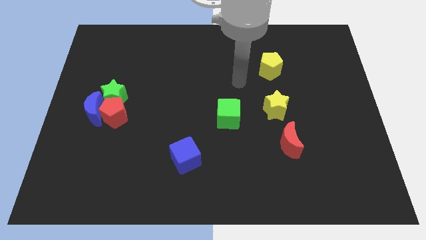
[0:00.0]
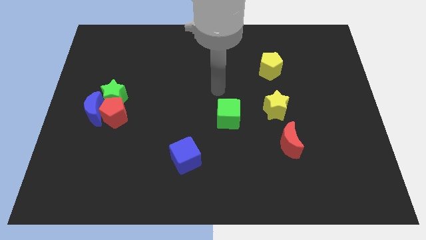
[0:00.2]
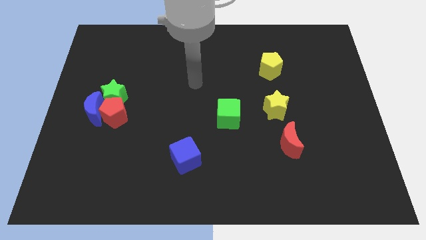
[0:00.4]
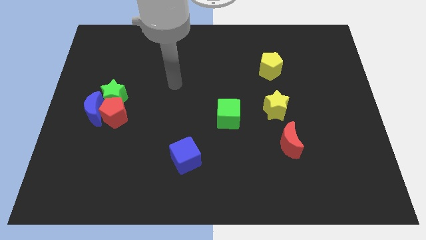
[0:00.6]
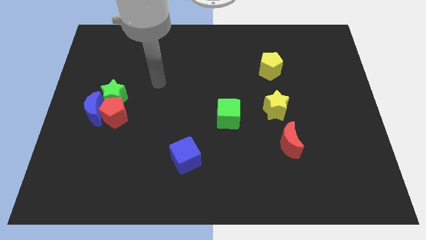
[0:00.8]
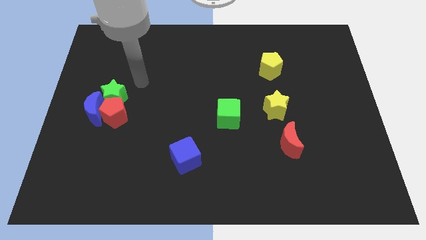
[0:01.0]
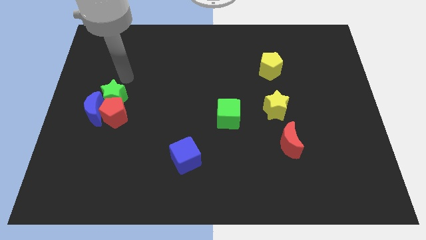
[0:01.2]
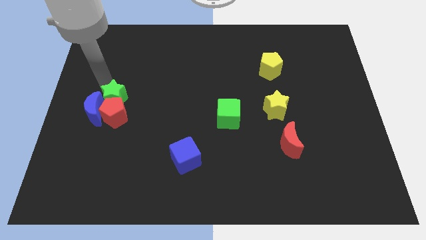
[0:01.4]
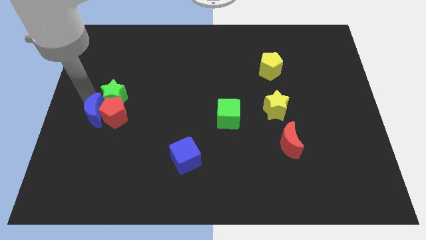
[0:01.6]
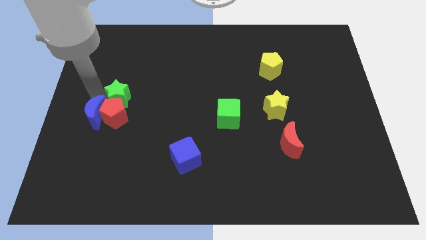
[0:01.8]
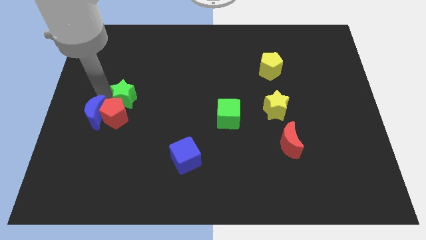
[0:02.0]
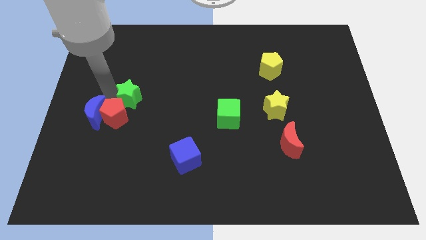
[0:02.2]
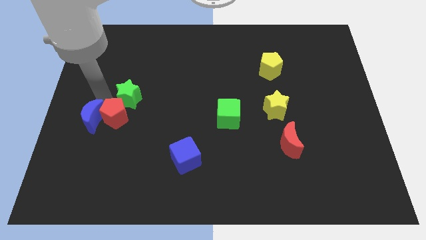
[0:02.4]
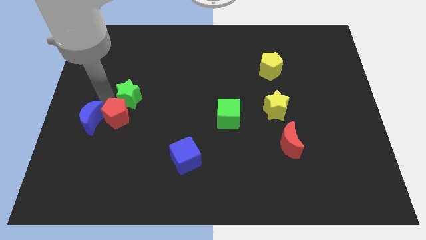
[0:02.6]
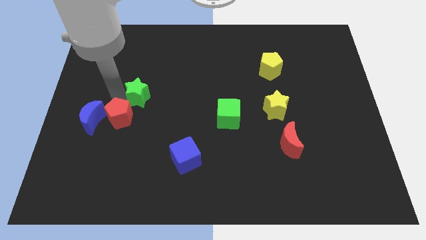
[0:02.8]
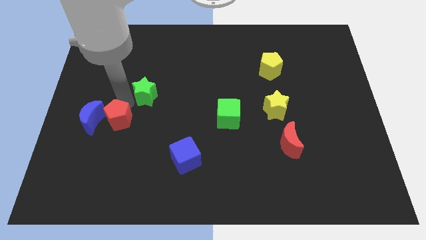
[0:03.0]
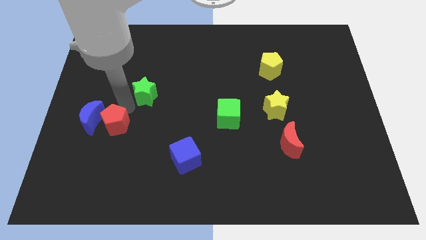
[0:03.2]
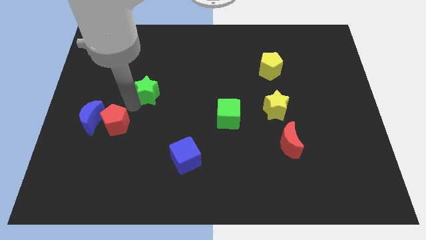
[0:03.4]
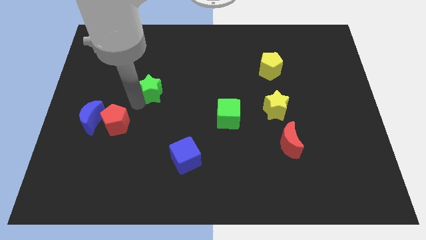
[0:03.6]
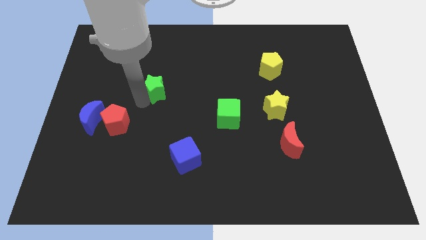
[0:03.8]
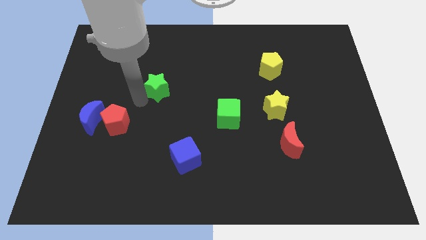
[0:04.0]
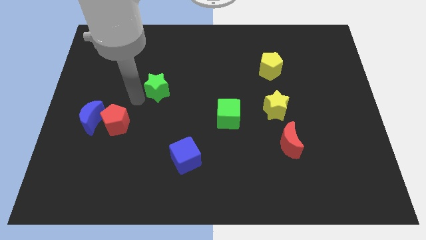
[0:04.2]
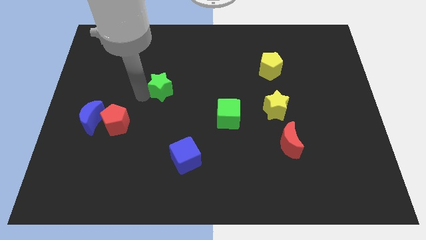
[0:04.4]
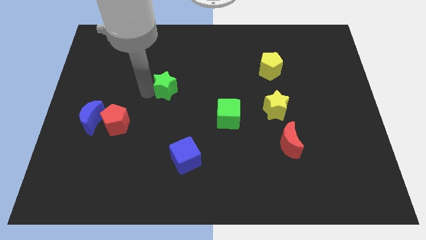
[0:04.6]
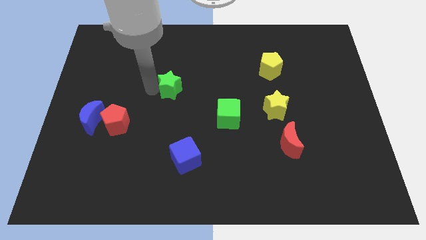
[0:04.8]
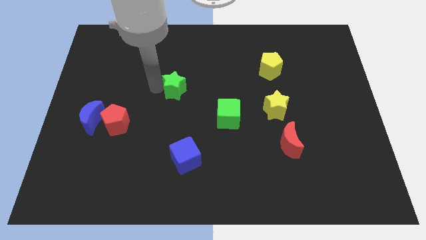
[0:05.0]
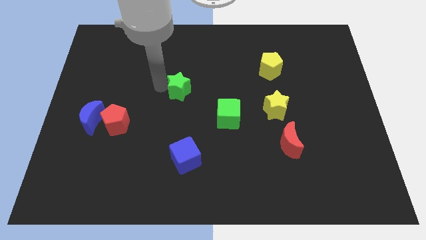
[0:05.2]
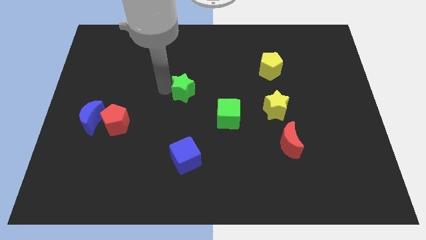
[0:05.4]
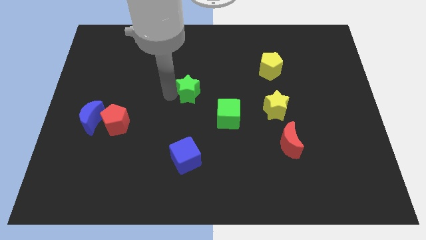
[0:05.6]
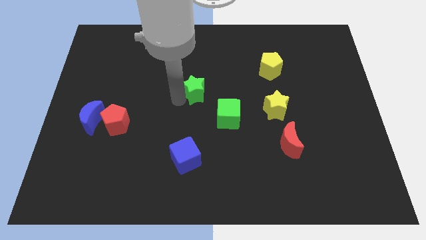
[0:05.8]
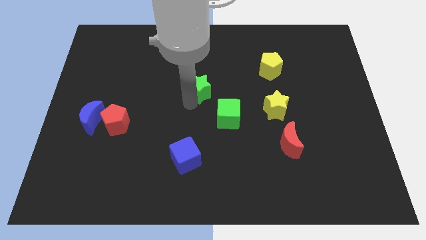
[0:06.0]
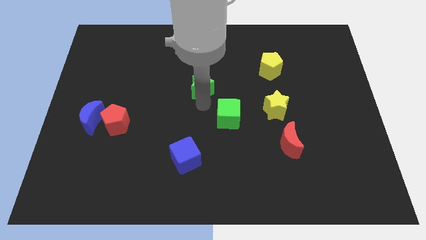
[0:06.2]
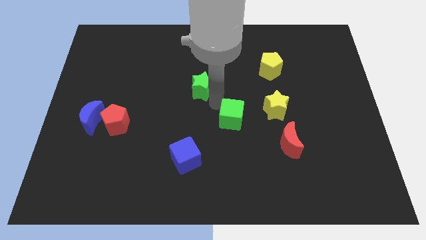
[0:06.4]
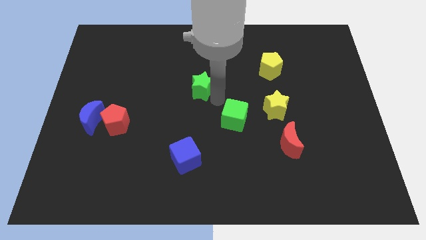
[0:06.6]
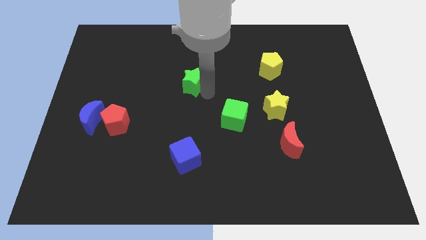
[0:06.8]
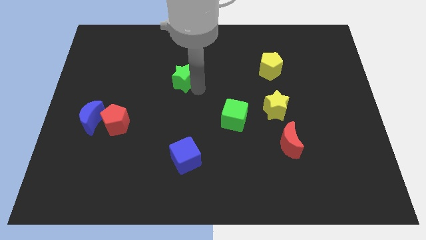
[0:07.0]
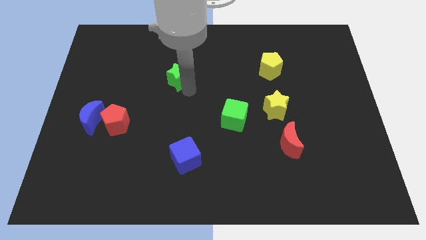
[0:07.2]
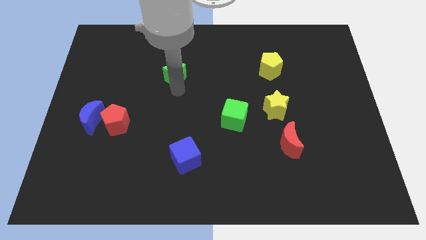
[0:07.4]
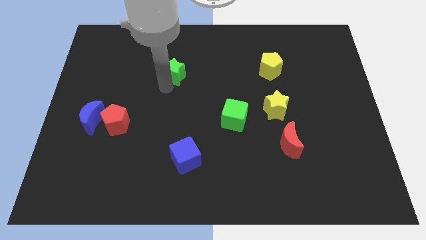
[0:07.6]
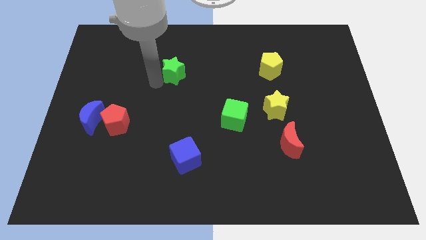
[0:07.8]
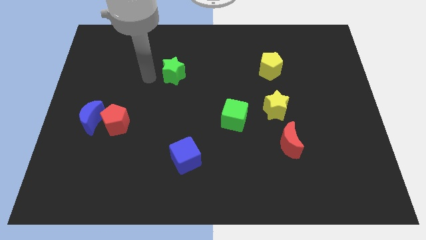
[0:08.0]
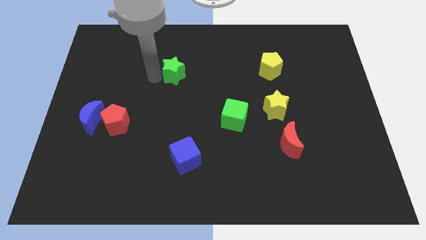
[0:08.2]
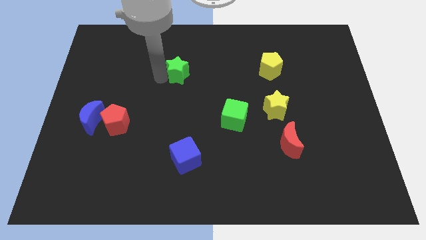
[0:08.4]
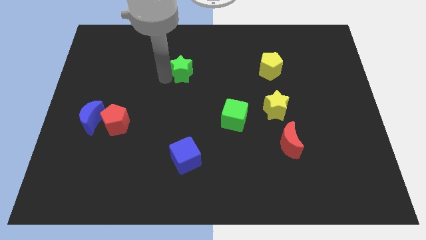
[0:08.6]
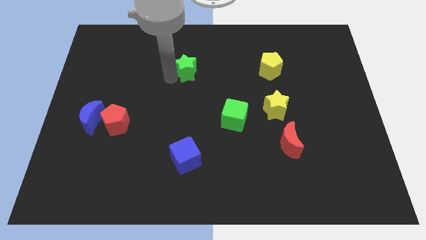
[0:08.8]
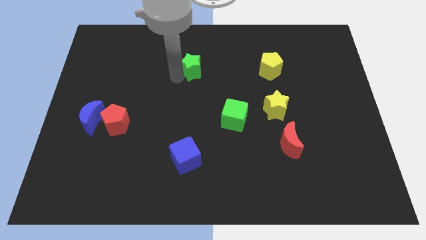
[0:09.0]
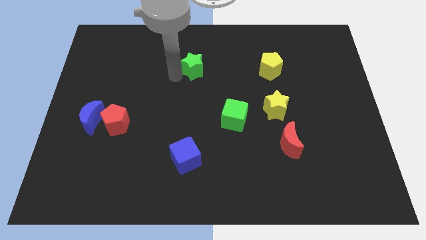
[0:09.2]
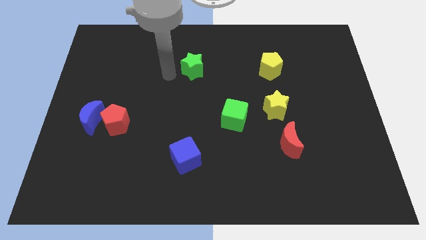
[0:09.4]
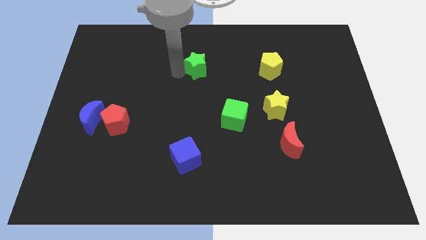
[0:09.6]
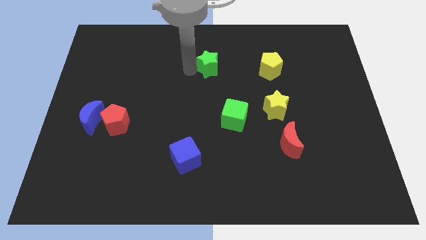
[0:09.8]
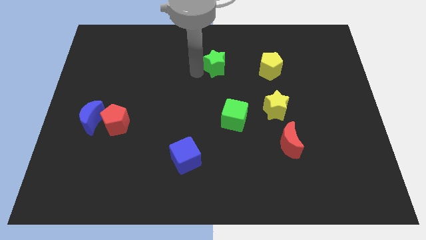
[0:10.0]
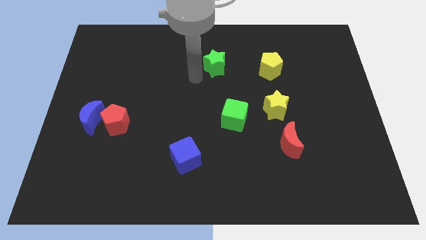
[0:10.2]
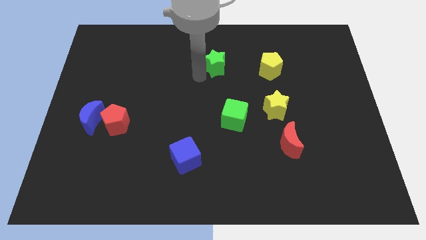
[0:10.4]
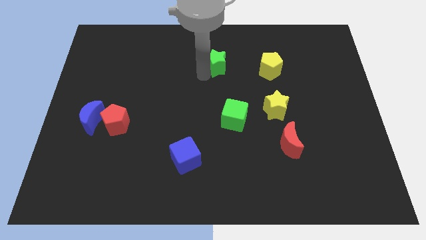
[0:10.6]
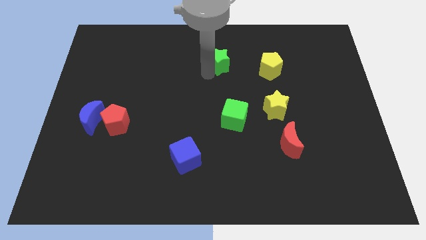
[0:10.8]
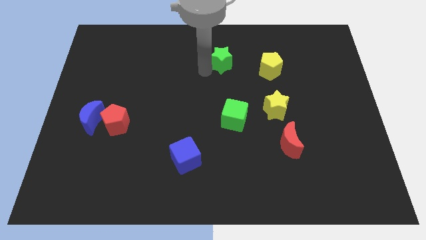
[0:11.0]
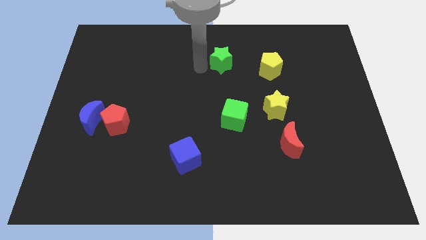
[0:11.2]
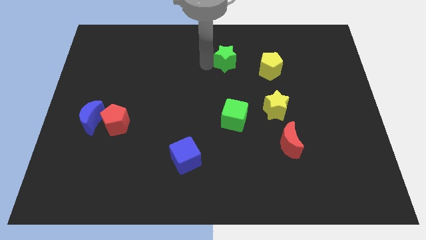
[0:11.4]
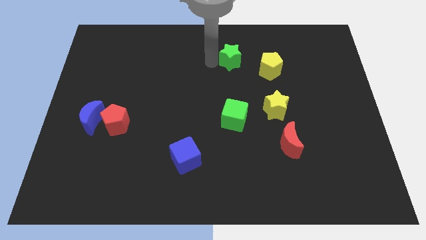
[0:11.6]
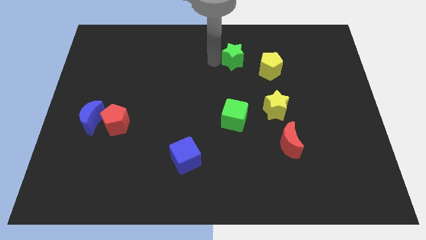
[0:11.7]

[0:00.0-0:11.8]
push the green star to the top left side of the yellow pentagon

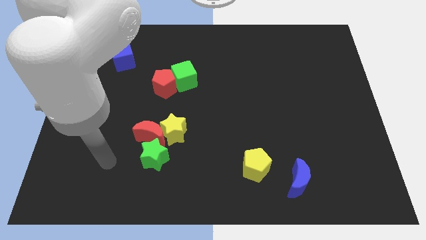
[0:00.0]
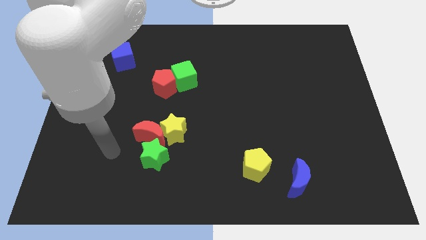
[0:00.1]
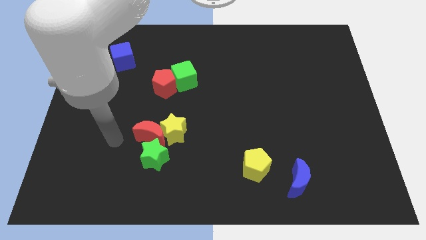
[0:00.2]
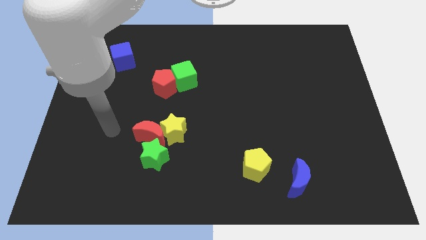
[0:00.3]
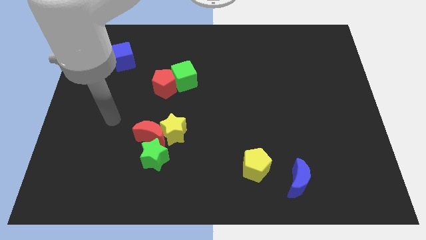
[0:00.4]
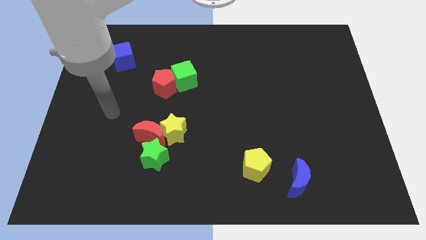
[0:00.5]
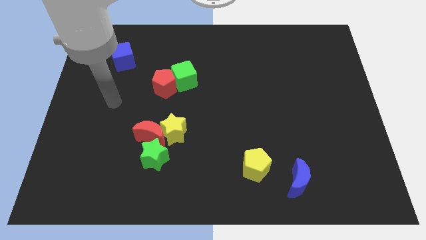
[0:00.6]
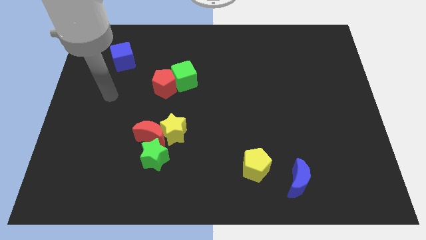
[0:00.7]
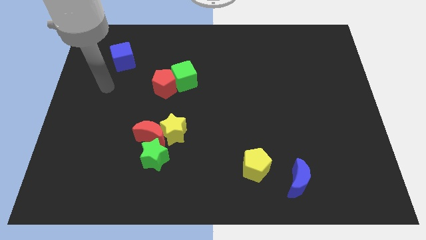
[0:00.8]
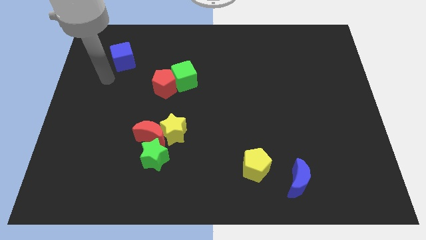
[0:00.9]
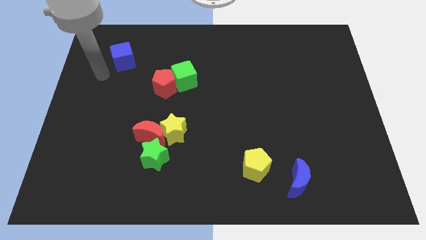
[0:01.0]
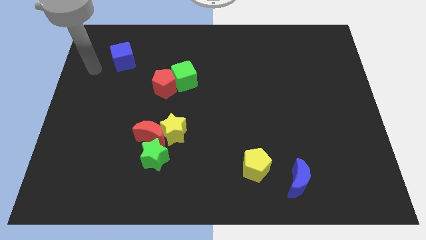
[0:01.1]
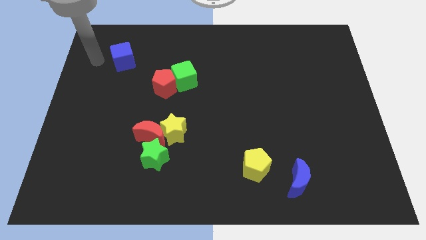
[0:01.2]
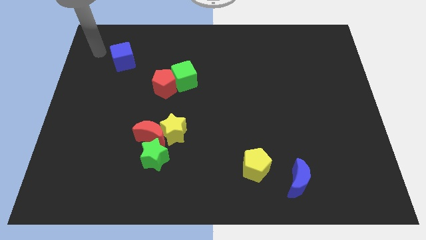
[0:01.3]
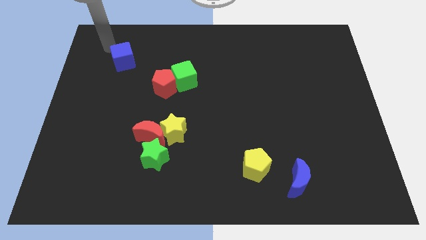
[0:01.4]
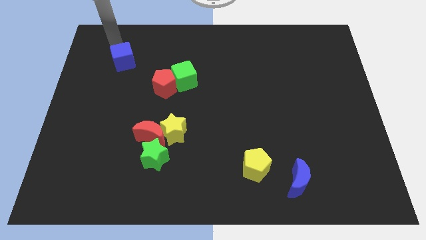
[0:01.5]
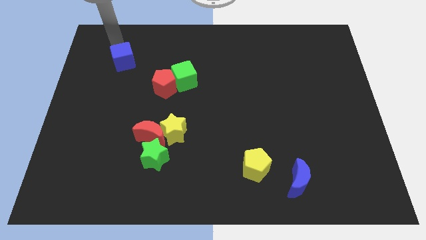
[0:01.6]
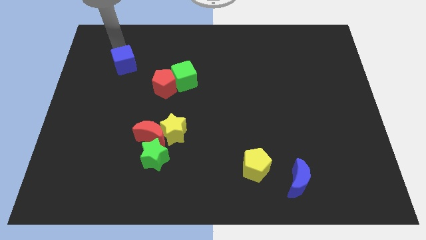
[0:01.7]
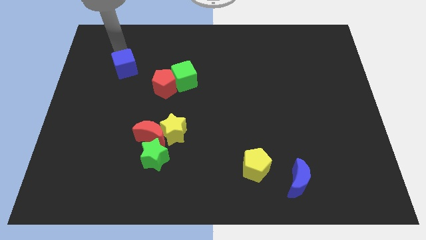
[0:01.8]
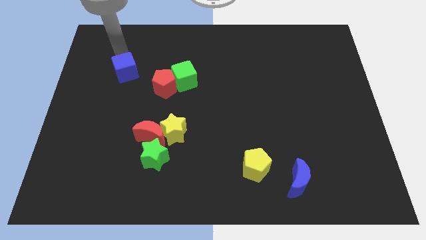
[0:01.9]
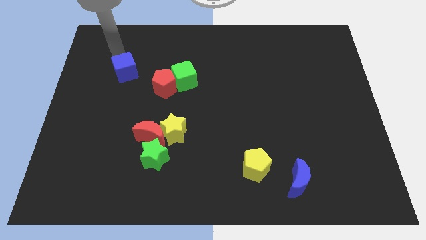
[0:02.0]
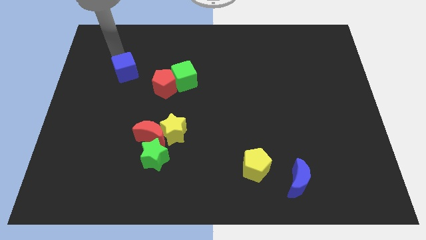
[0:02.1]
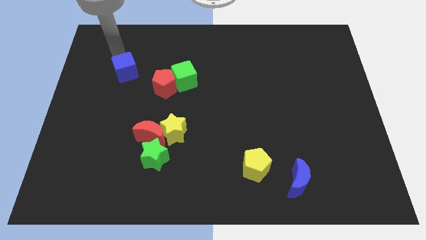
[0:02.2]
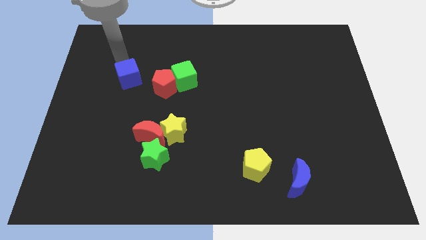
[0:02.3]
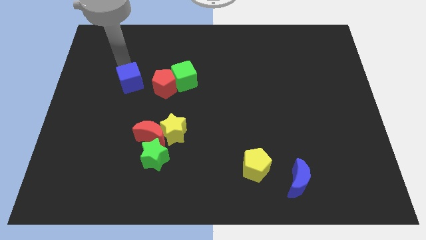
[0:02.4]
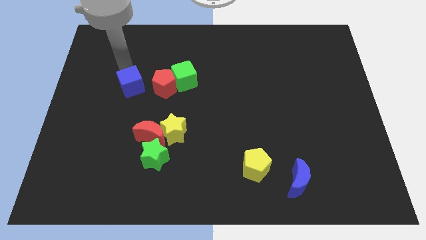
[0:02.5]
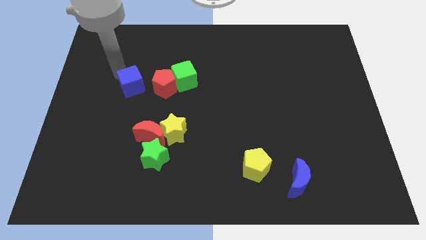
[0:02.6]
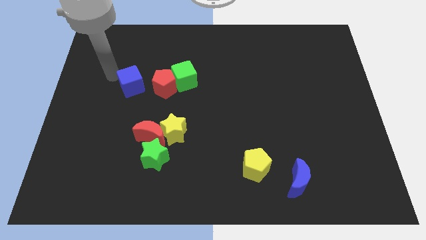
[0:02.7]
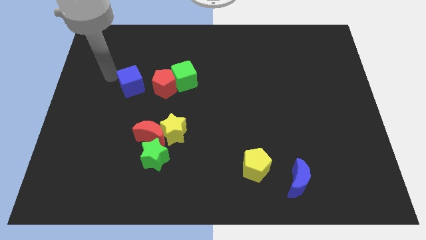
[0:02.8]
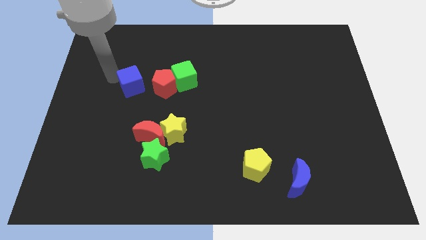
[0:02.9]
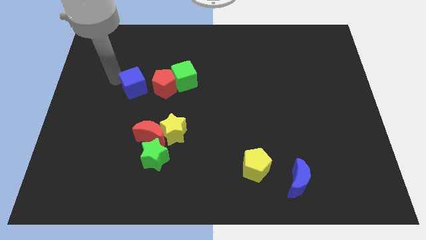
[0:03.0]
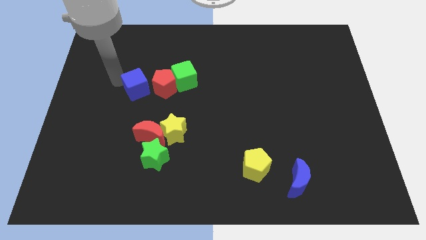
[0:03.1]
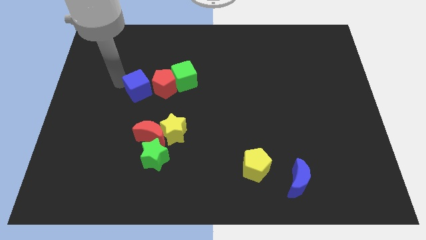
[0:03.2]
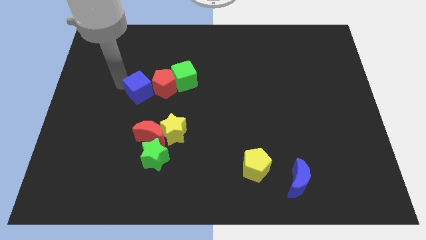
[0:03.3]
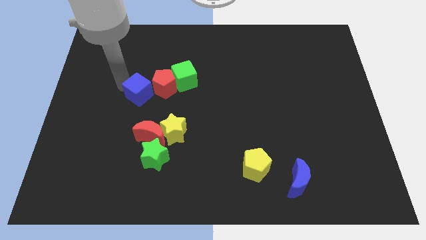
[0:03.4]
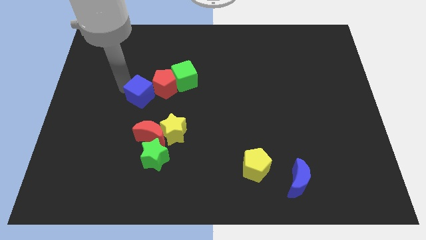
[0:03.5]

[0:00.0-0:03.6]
move the blue cube to the bottom left side of the green cube
